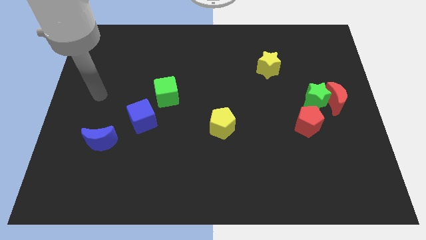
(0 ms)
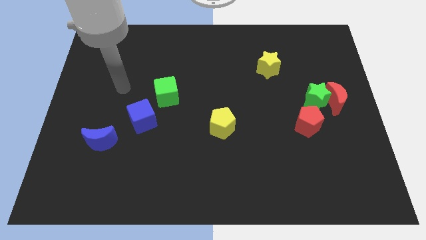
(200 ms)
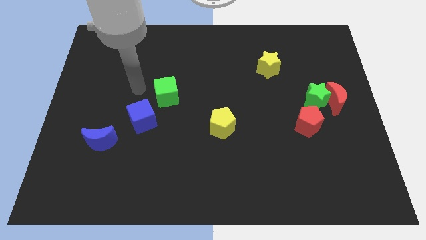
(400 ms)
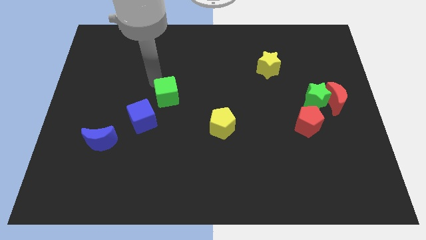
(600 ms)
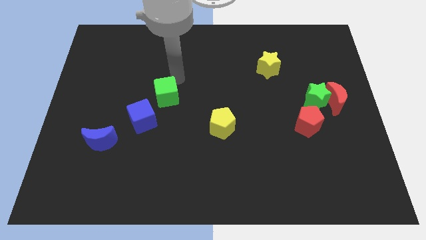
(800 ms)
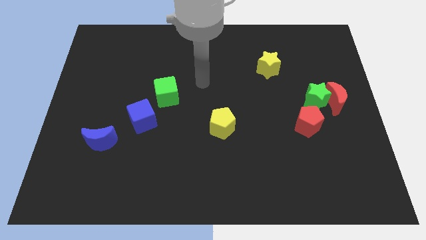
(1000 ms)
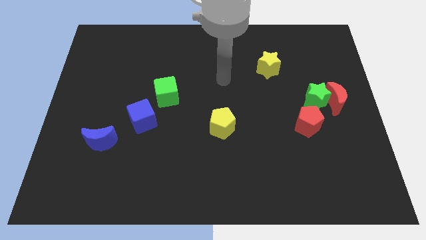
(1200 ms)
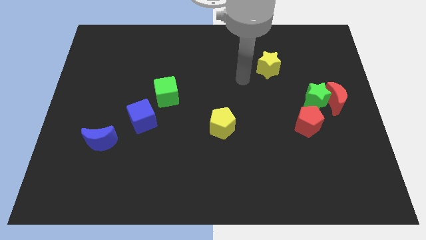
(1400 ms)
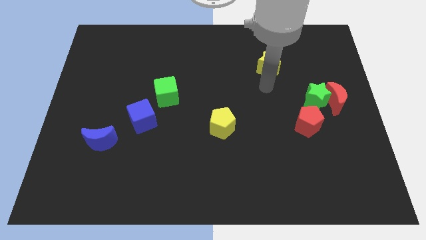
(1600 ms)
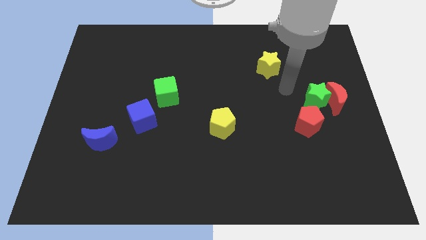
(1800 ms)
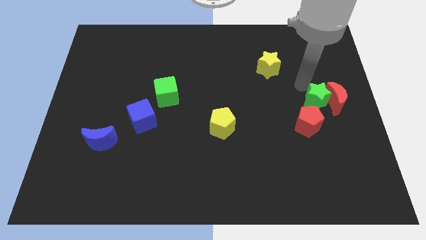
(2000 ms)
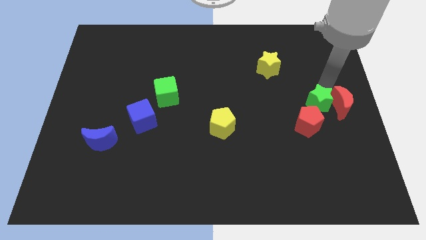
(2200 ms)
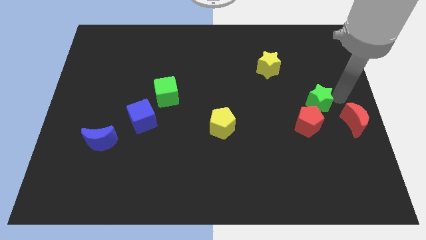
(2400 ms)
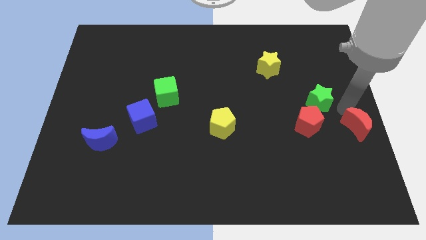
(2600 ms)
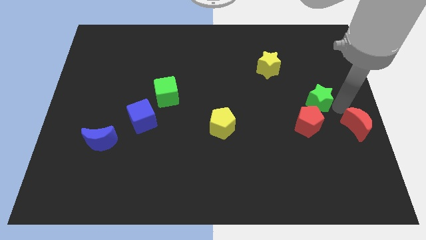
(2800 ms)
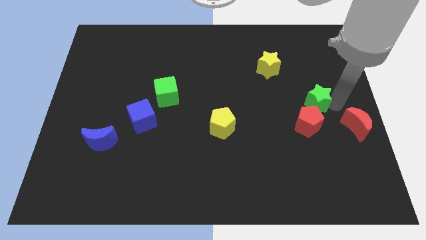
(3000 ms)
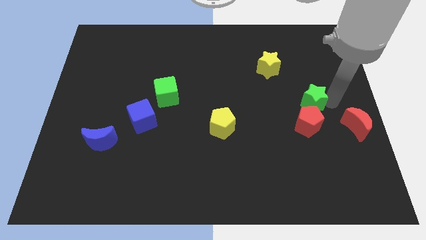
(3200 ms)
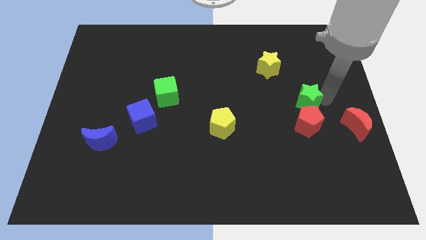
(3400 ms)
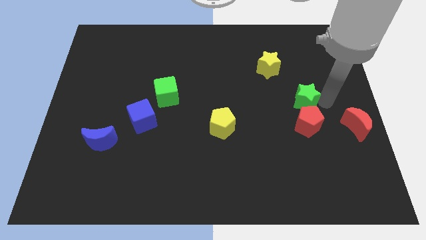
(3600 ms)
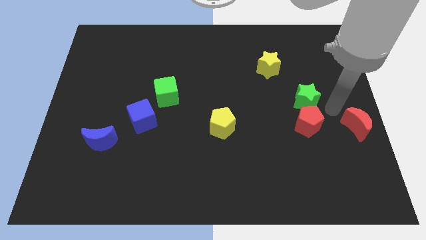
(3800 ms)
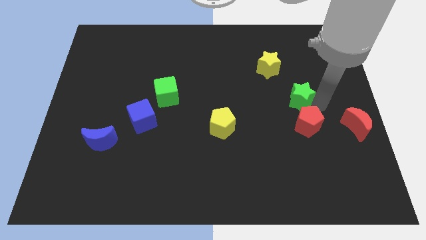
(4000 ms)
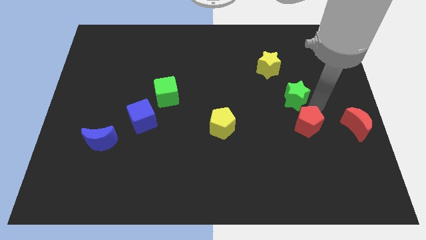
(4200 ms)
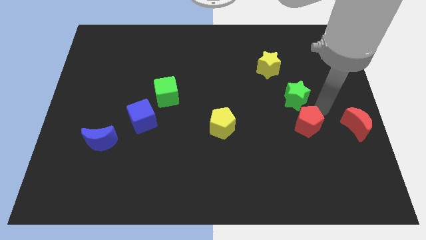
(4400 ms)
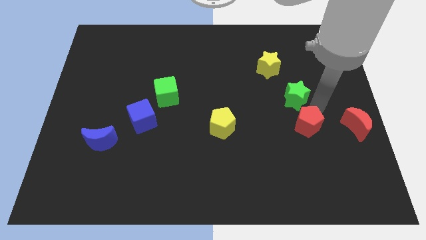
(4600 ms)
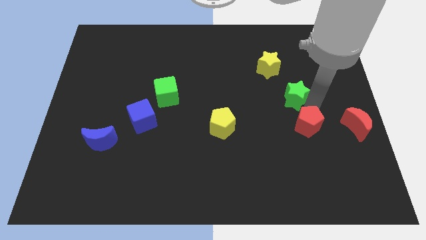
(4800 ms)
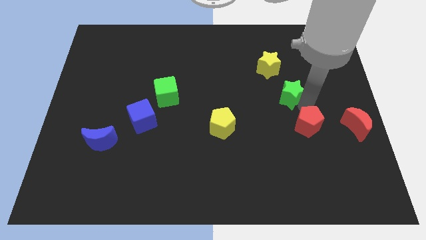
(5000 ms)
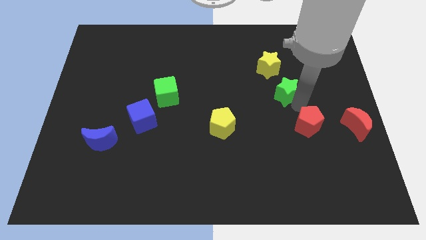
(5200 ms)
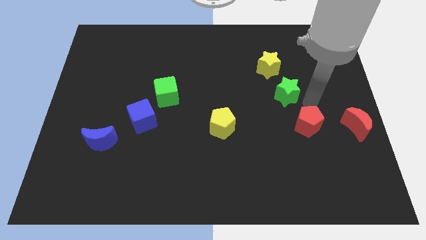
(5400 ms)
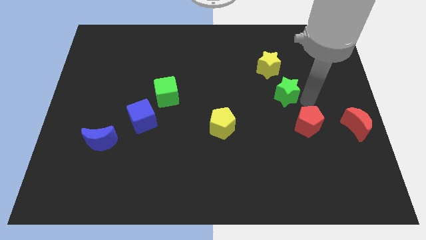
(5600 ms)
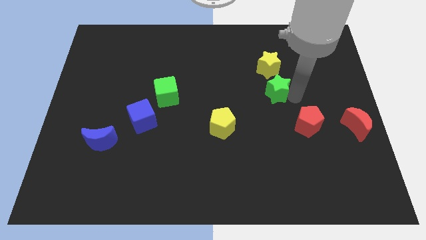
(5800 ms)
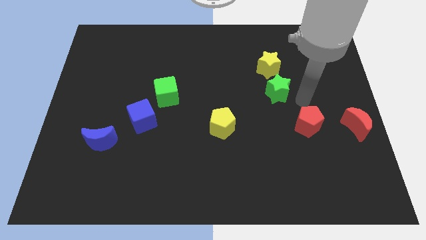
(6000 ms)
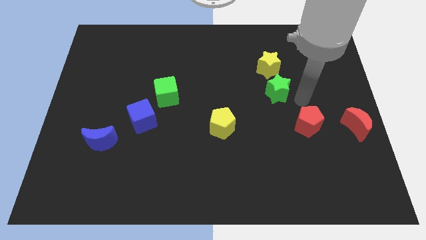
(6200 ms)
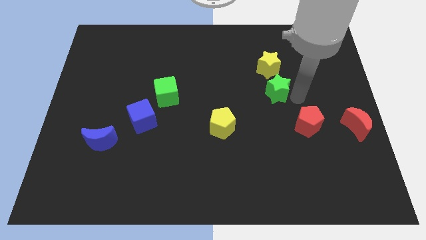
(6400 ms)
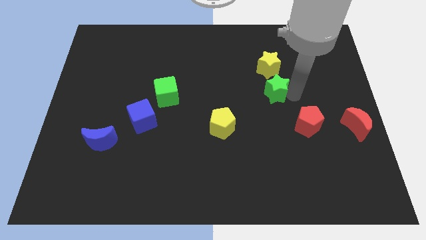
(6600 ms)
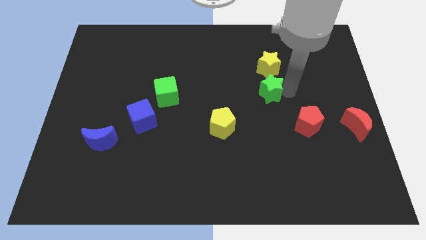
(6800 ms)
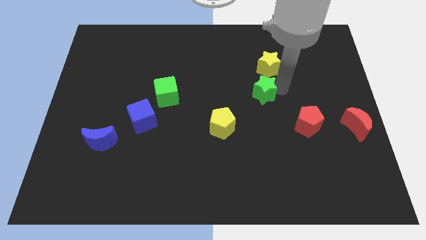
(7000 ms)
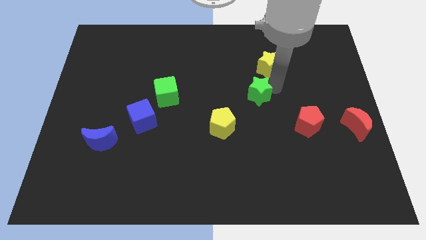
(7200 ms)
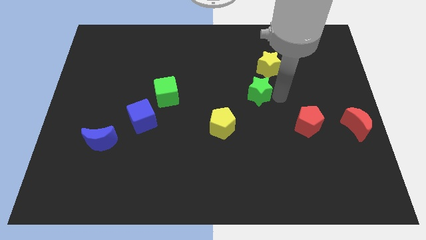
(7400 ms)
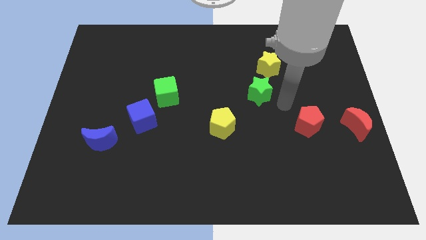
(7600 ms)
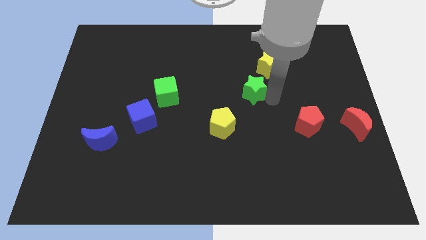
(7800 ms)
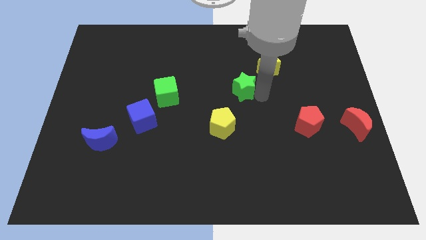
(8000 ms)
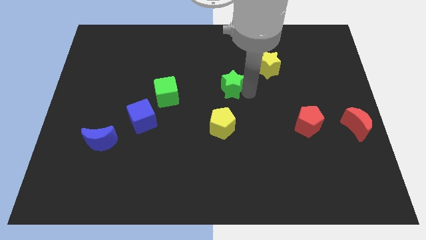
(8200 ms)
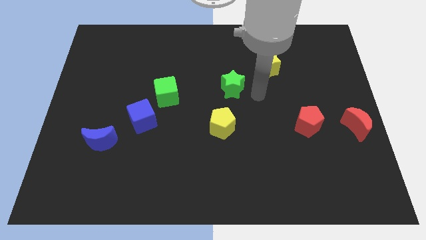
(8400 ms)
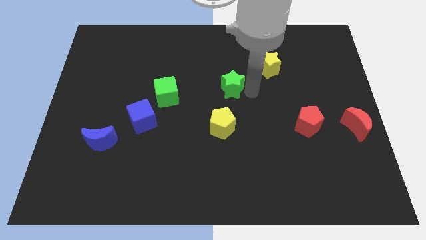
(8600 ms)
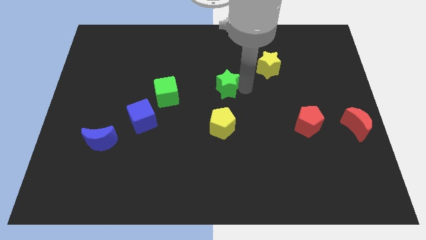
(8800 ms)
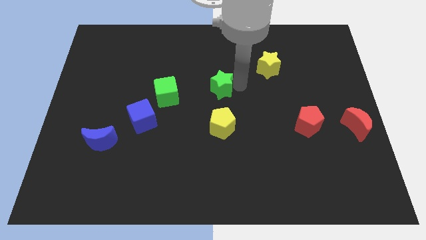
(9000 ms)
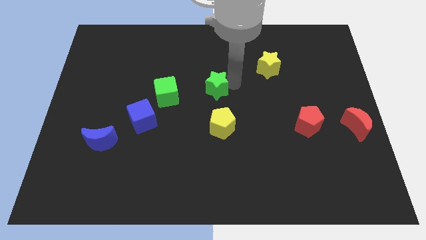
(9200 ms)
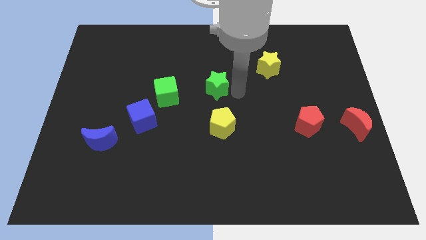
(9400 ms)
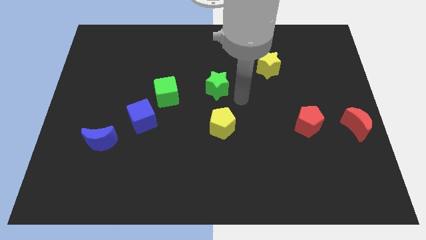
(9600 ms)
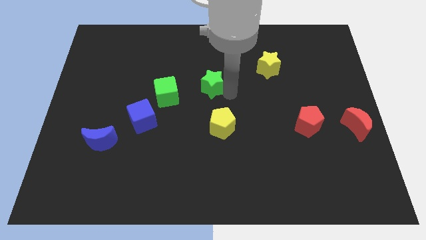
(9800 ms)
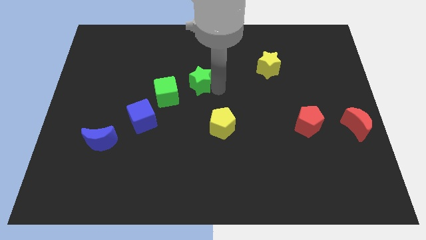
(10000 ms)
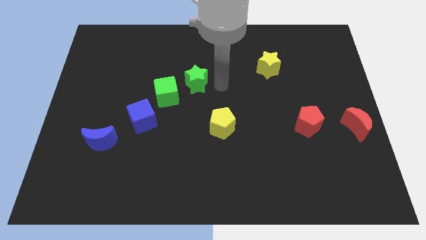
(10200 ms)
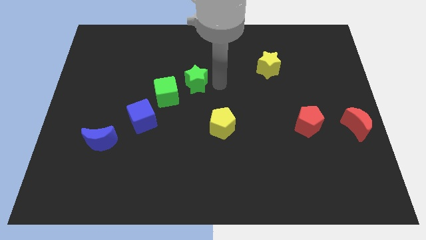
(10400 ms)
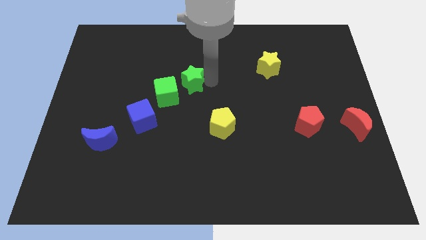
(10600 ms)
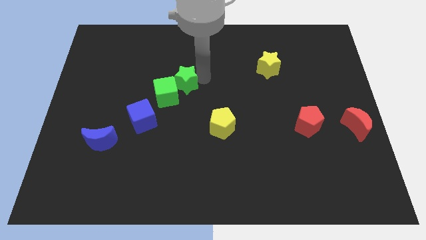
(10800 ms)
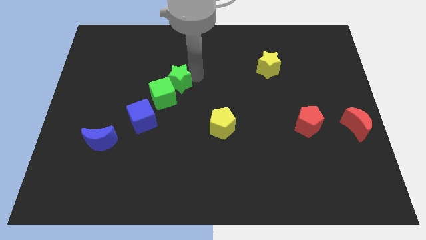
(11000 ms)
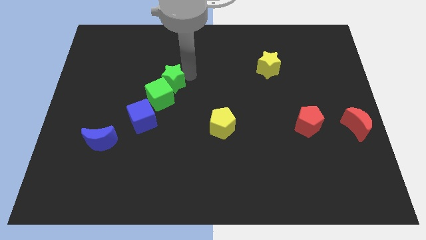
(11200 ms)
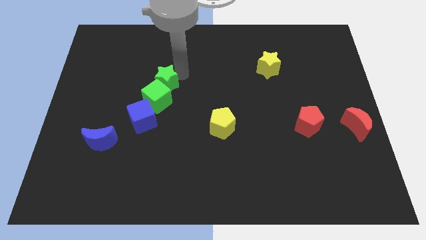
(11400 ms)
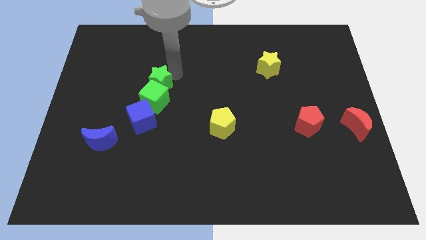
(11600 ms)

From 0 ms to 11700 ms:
slide the green star diagonally up and to the left of the green cube

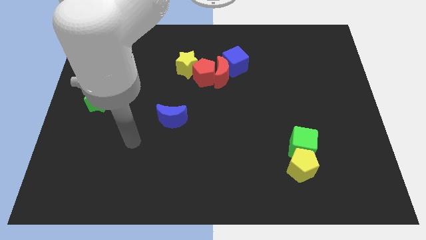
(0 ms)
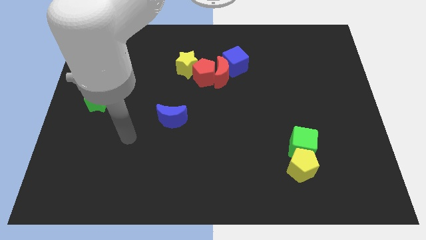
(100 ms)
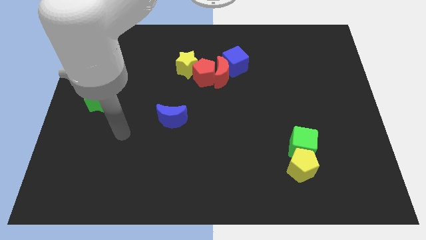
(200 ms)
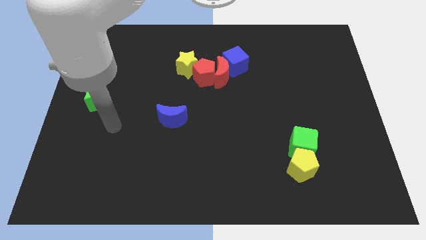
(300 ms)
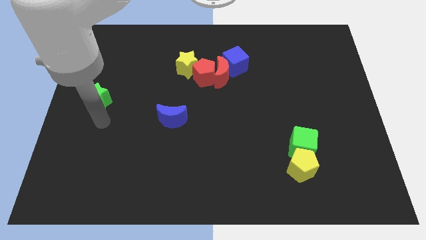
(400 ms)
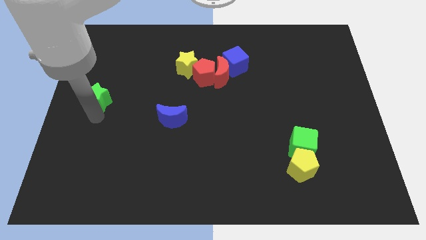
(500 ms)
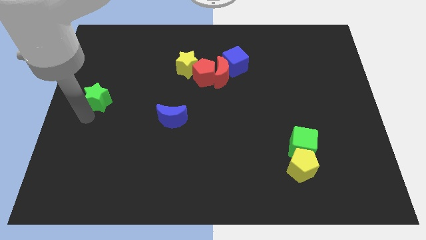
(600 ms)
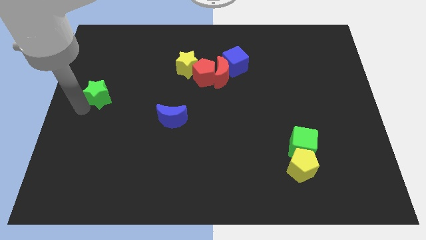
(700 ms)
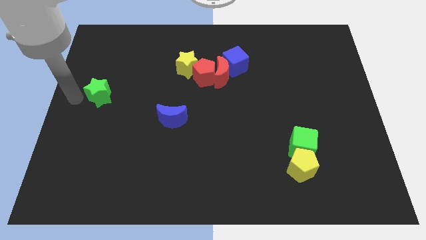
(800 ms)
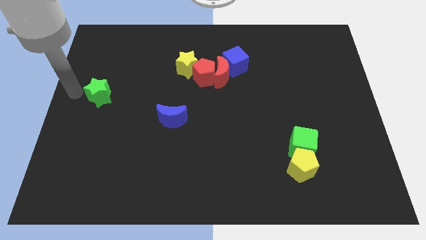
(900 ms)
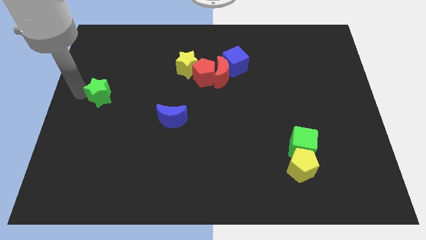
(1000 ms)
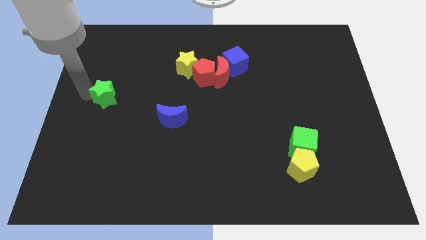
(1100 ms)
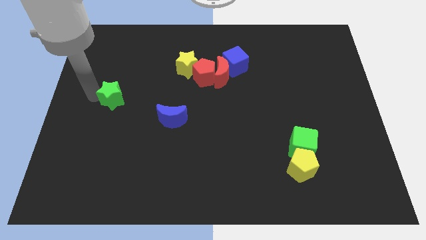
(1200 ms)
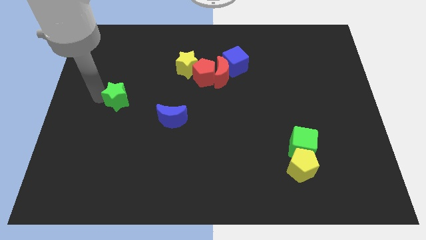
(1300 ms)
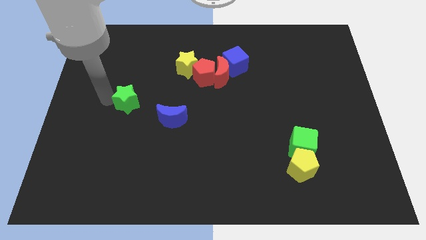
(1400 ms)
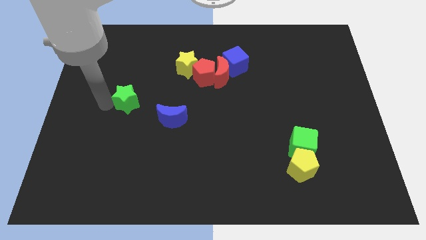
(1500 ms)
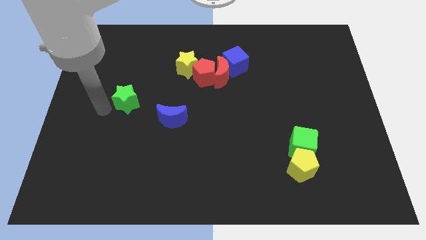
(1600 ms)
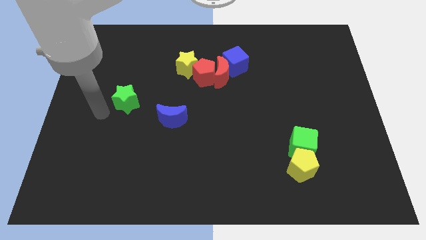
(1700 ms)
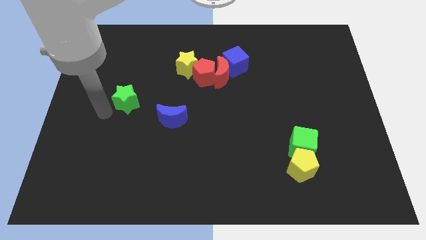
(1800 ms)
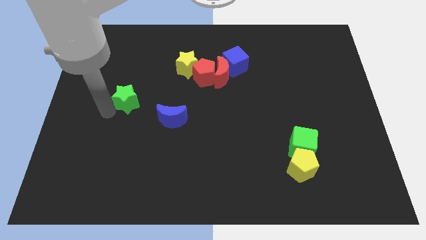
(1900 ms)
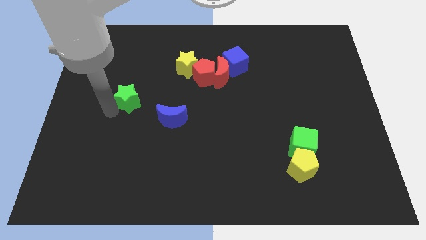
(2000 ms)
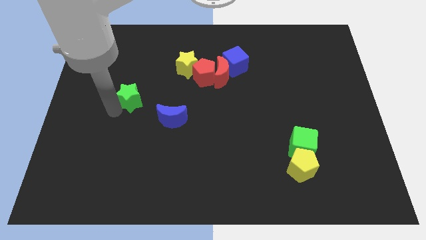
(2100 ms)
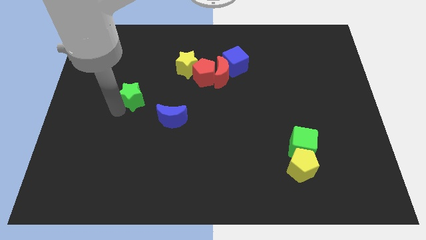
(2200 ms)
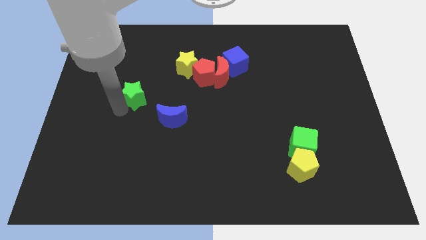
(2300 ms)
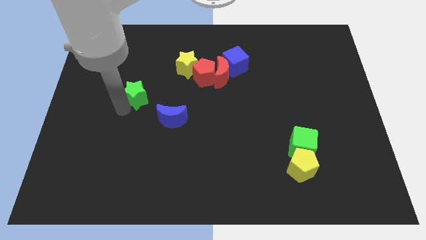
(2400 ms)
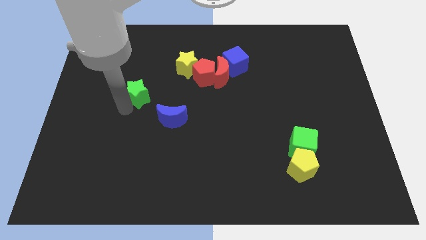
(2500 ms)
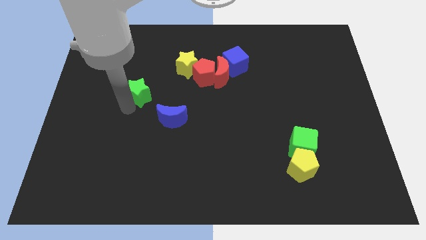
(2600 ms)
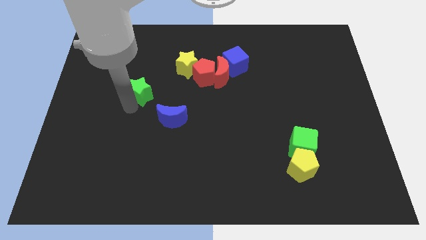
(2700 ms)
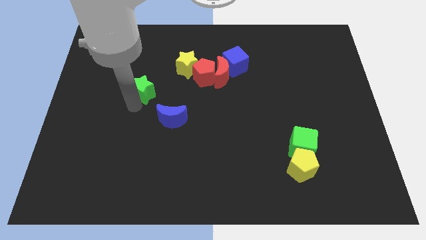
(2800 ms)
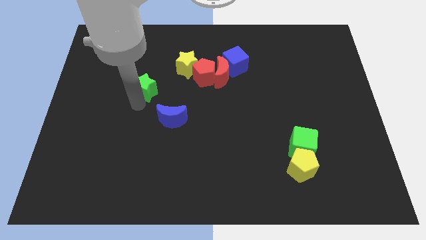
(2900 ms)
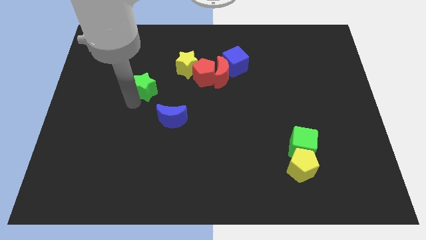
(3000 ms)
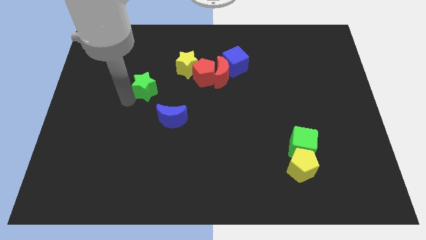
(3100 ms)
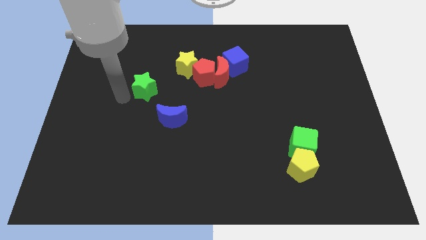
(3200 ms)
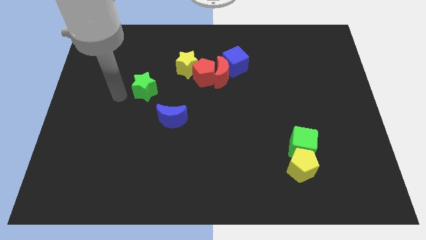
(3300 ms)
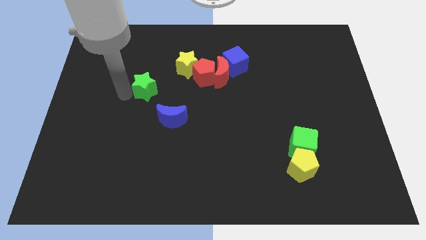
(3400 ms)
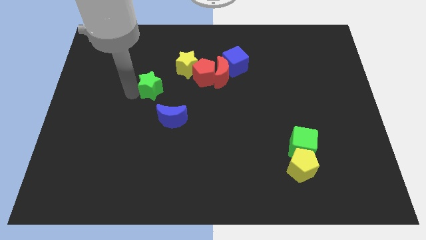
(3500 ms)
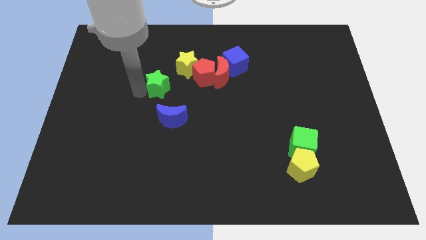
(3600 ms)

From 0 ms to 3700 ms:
slide the green star to the top of the blue moon
